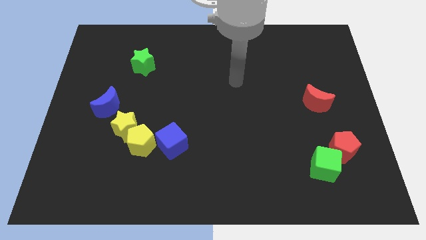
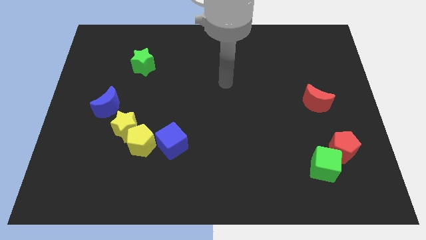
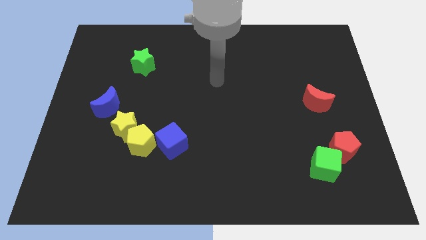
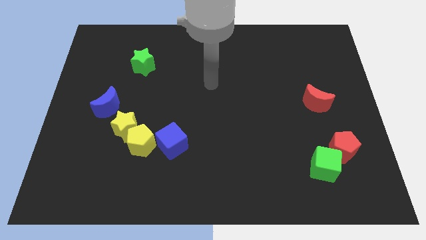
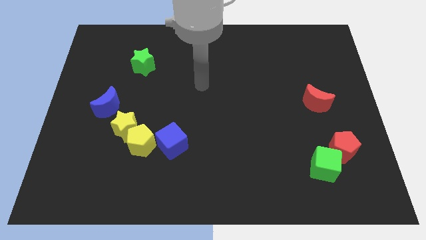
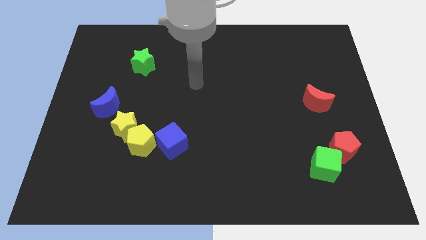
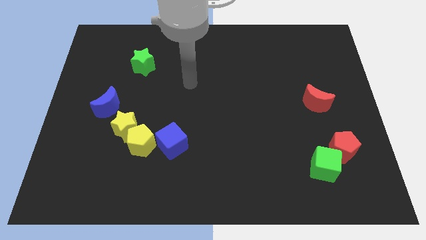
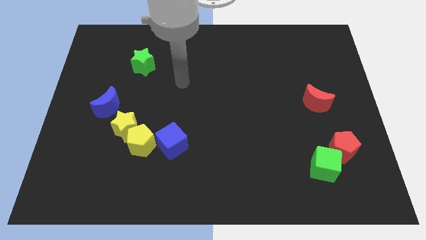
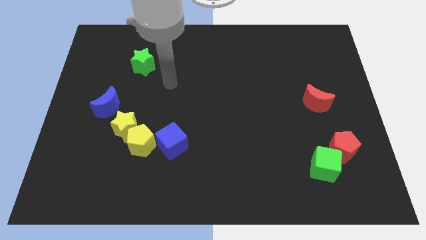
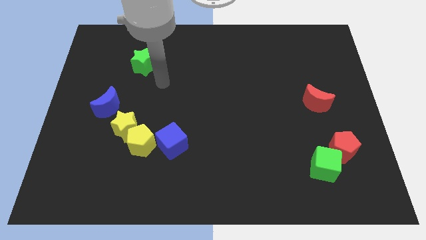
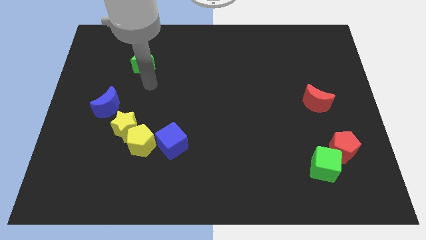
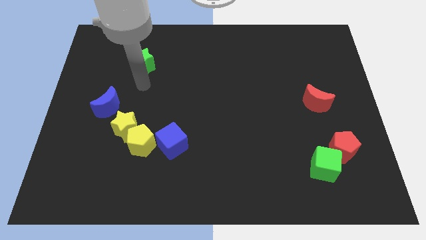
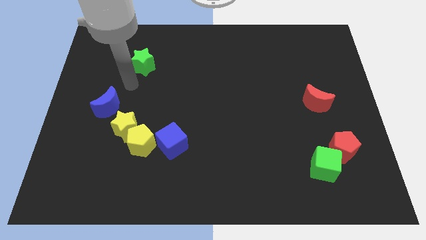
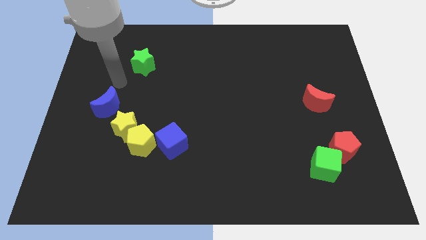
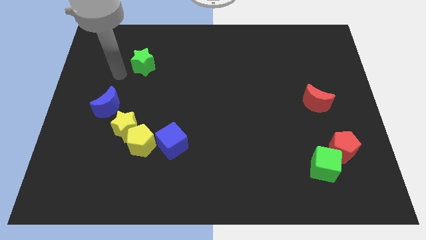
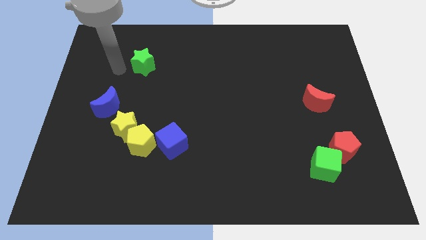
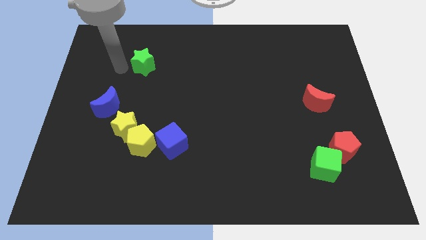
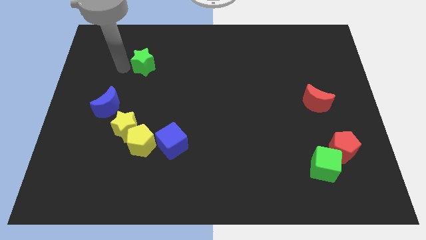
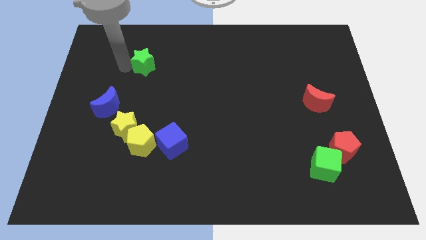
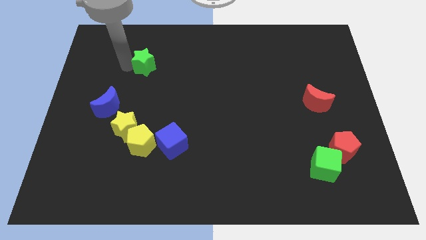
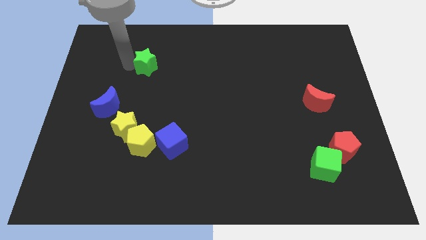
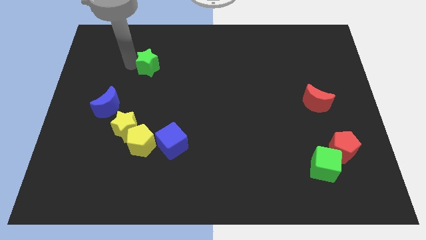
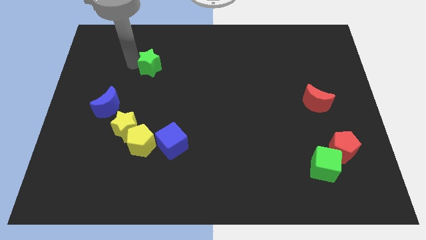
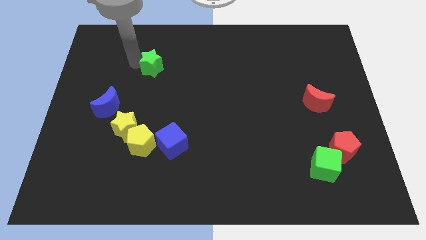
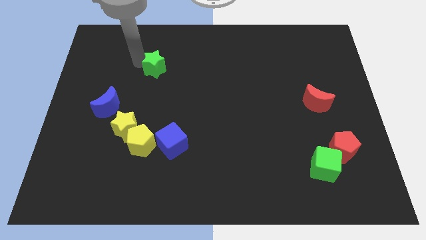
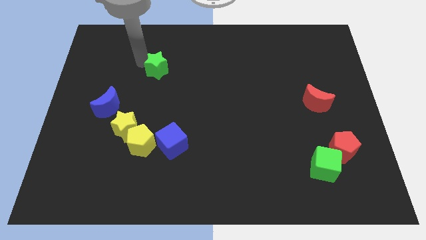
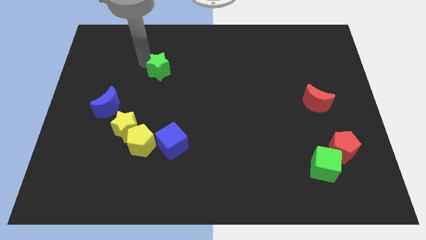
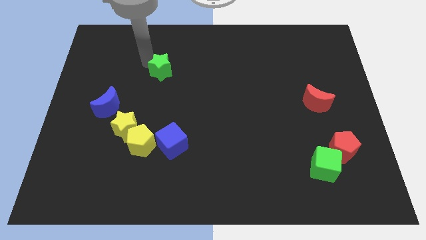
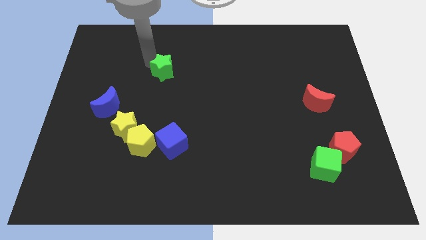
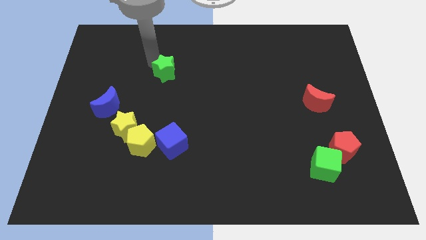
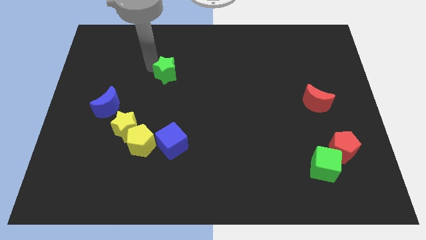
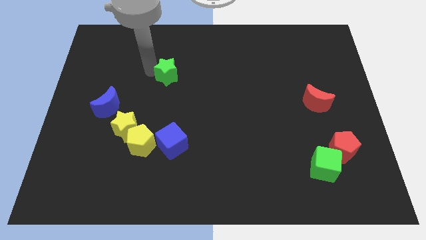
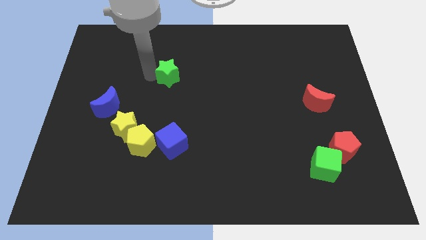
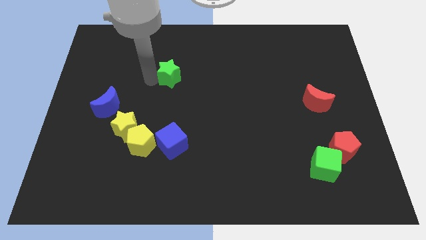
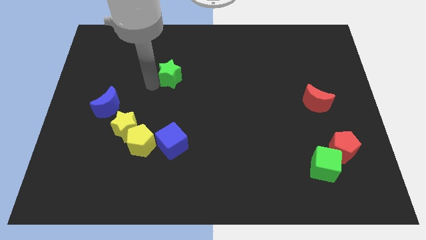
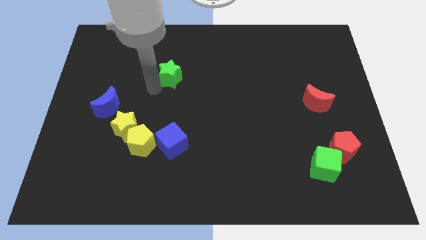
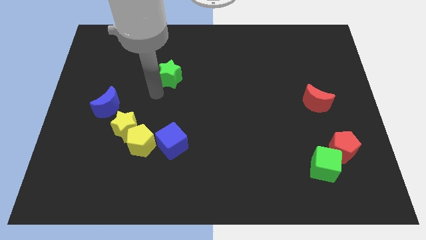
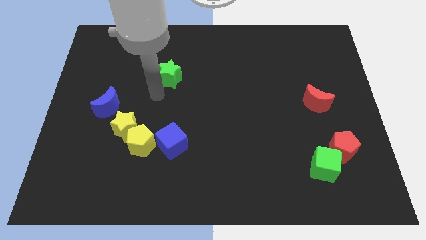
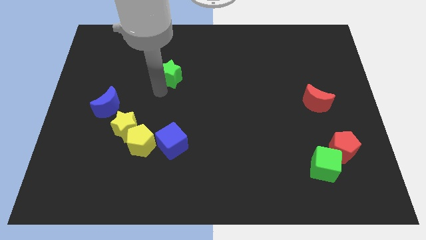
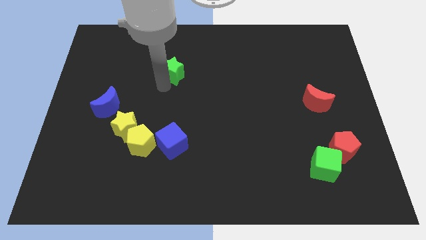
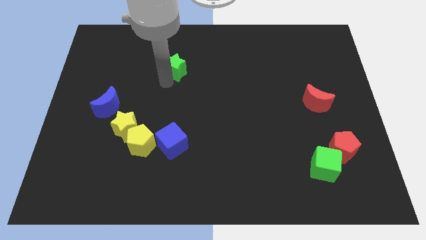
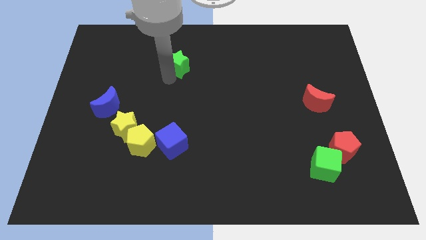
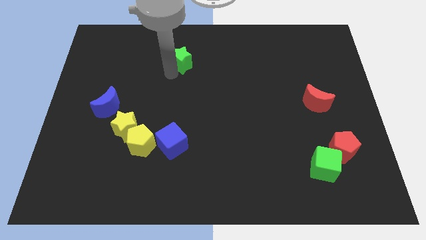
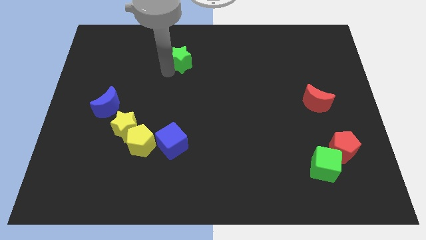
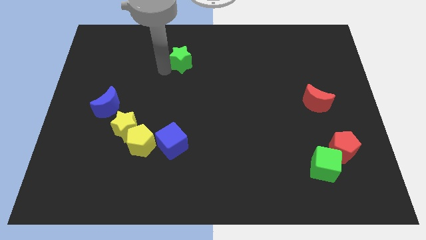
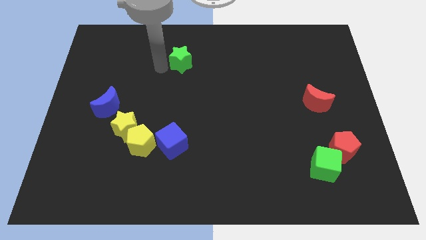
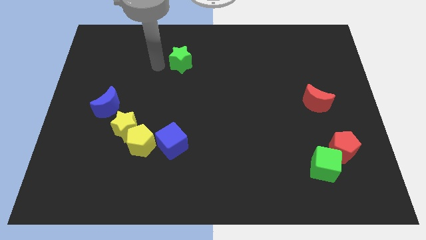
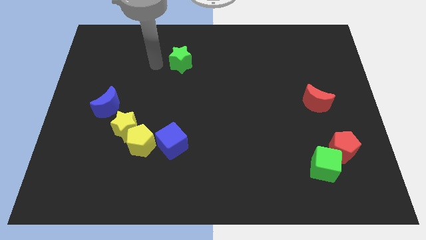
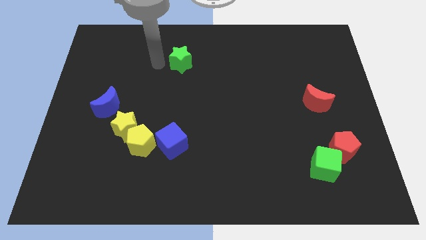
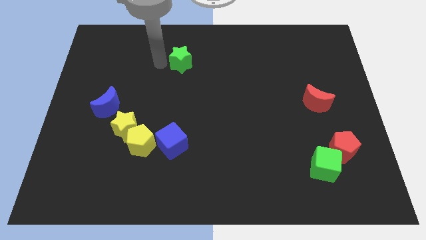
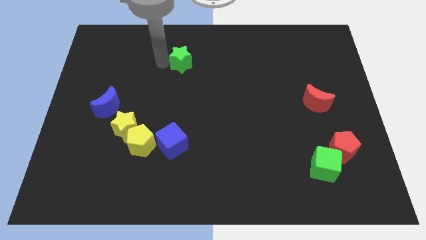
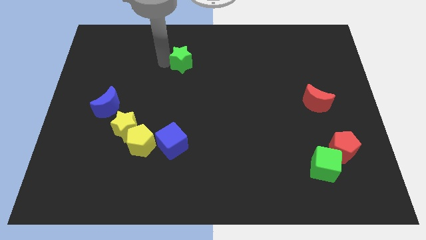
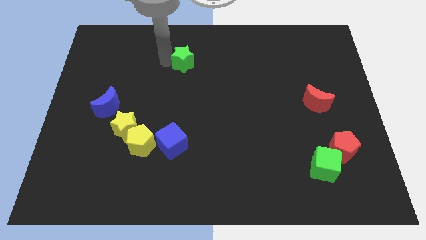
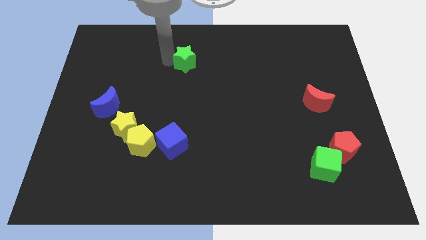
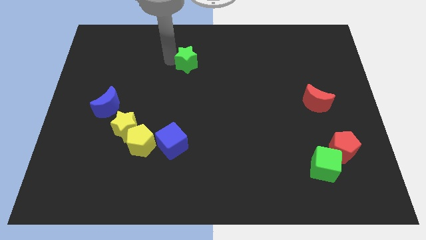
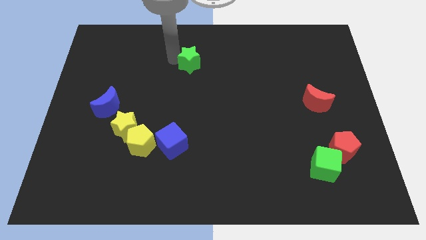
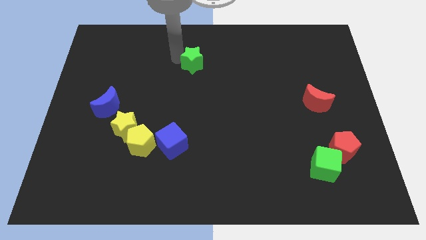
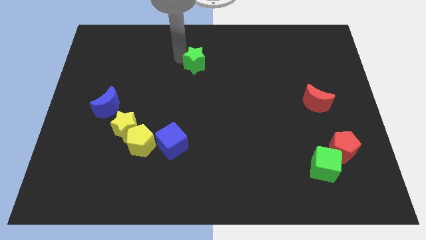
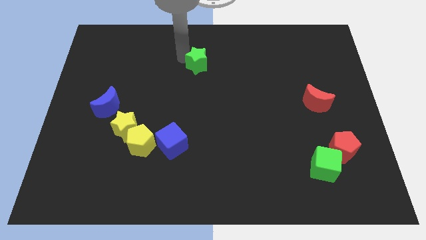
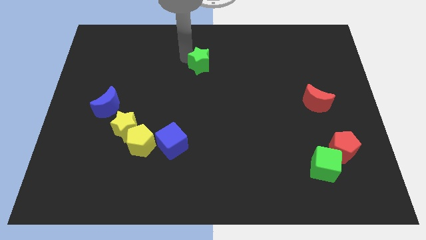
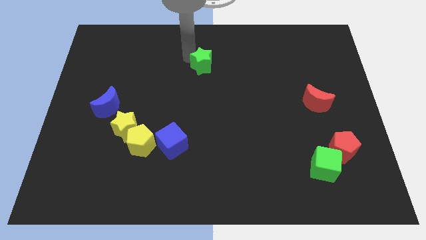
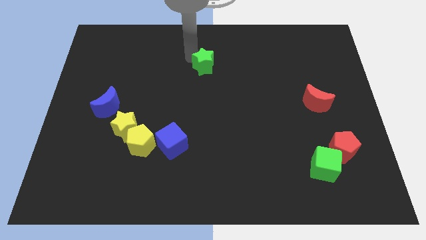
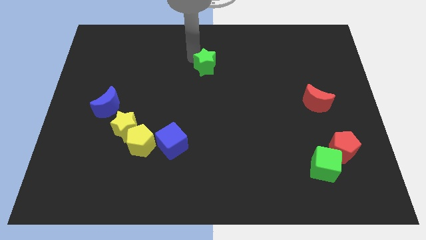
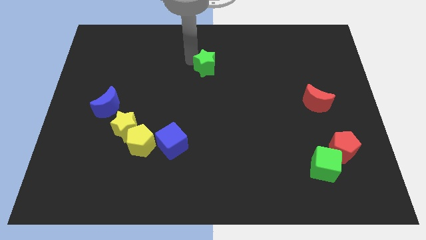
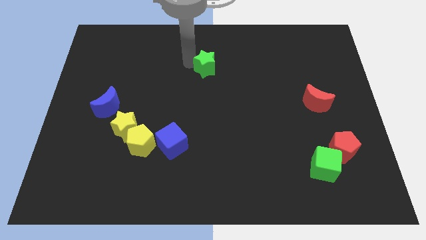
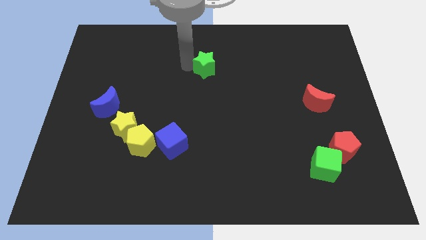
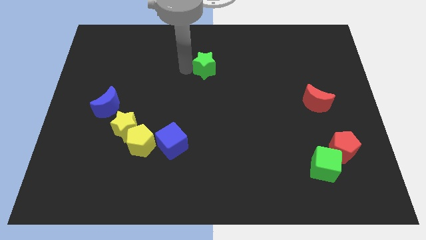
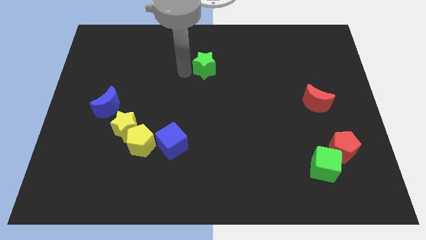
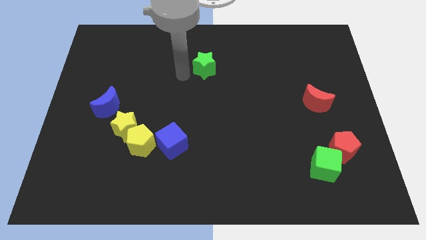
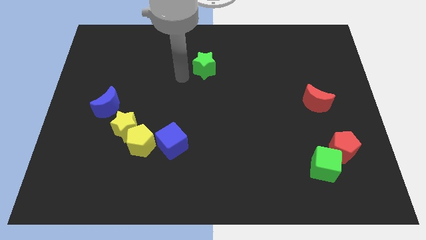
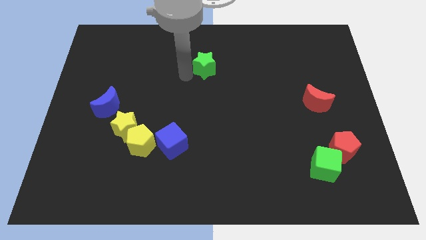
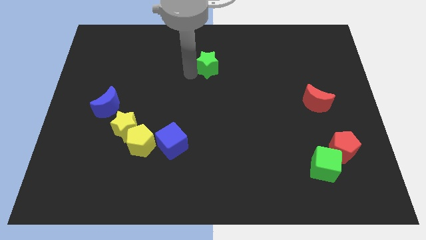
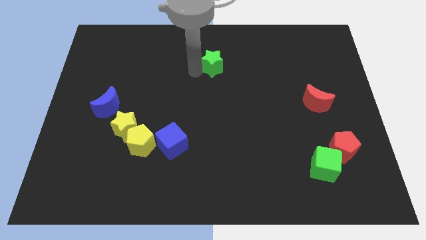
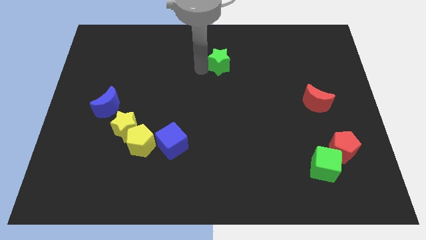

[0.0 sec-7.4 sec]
push the green star to the right

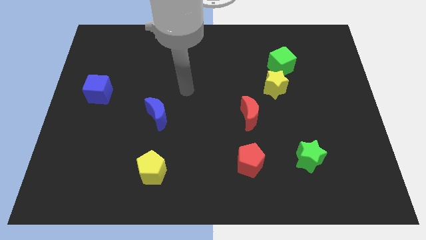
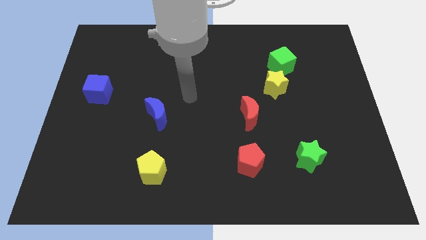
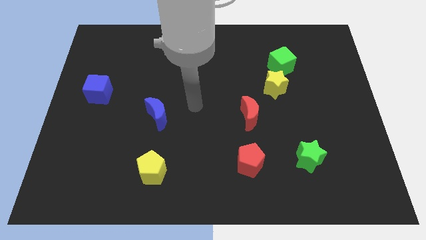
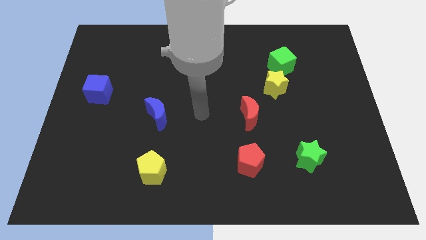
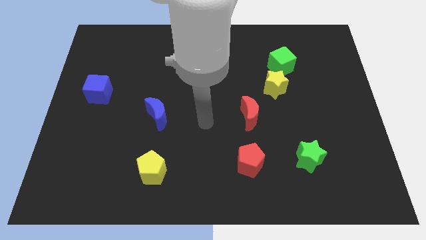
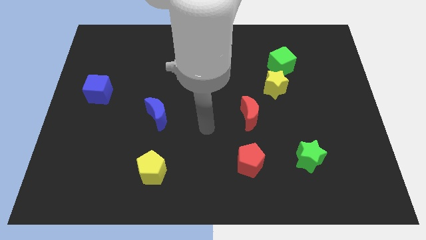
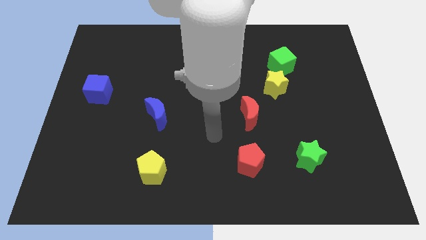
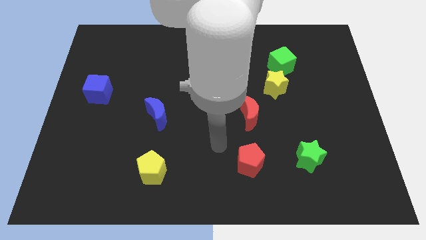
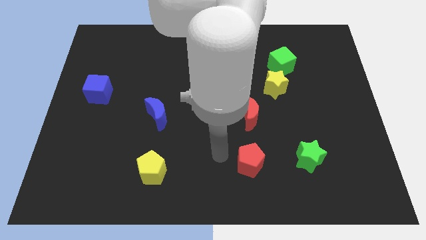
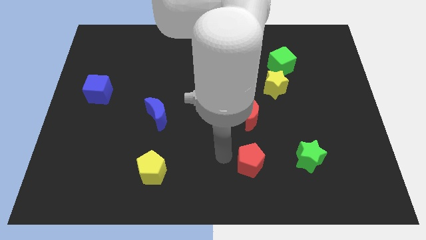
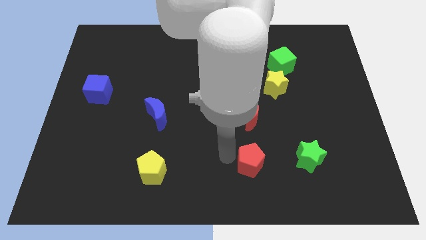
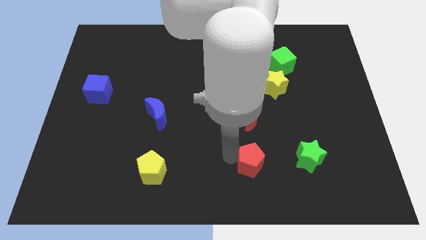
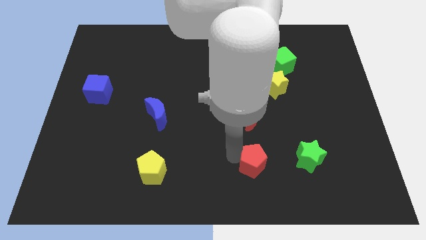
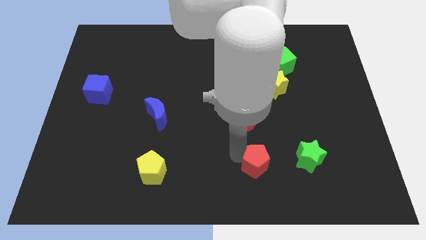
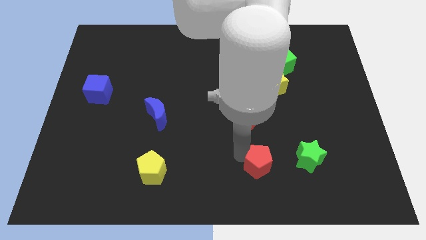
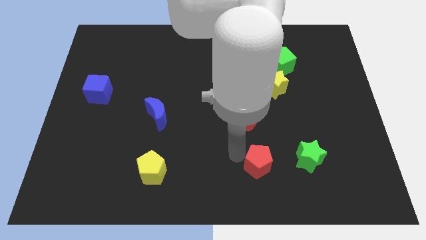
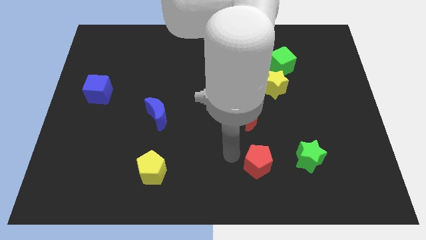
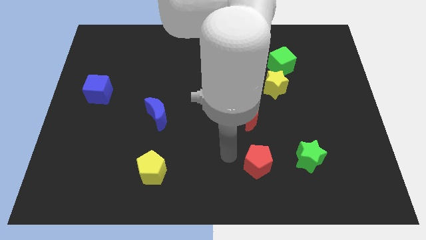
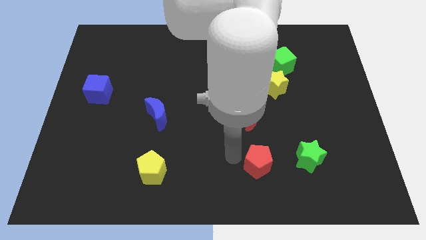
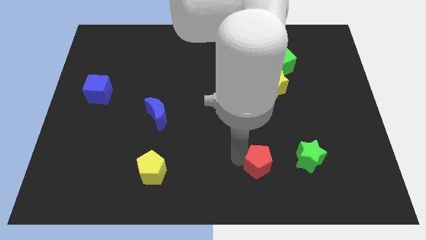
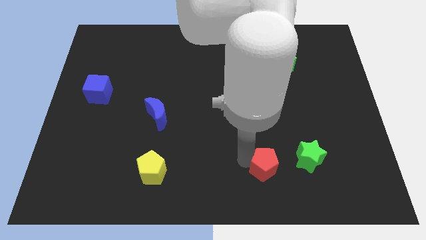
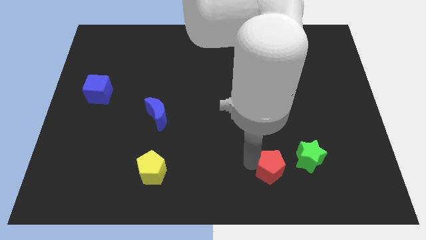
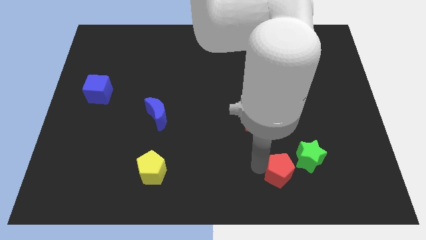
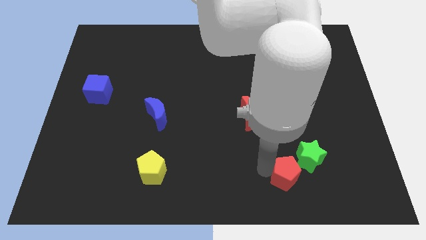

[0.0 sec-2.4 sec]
slide the red pentagon a little right
